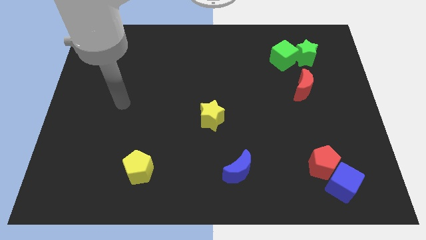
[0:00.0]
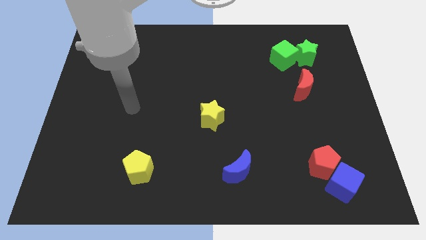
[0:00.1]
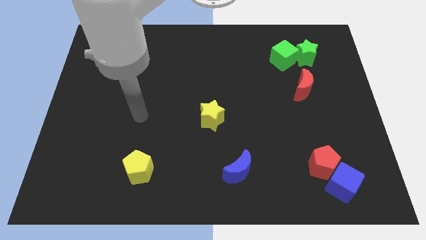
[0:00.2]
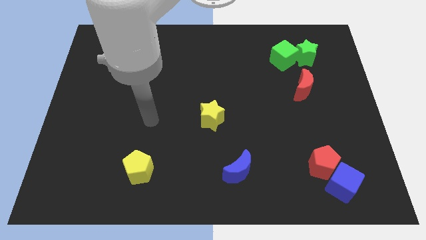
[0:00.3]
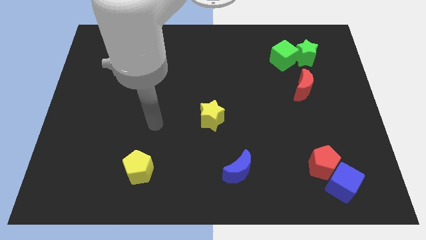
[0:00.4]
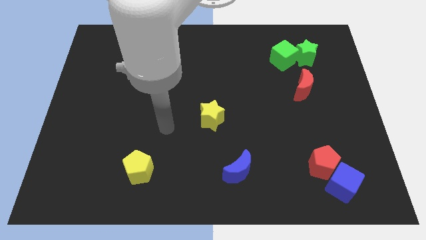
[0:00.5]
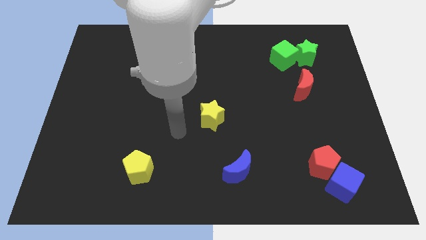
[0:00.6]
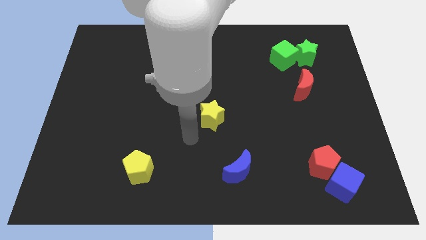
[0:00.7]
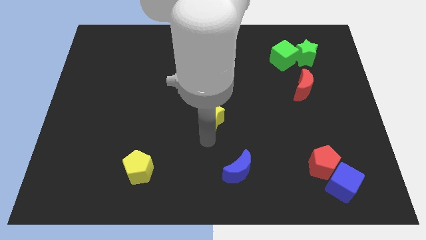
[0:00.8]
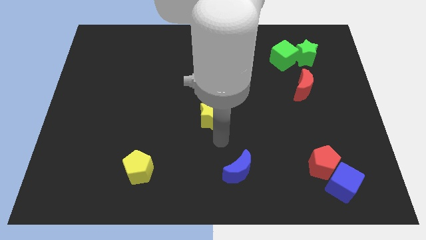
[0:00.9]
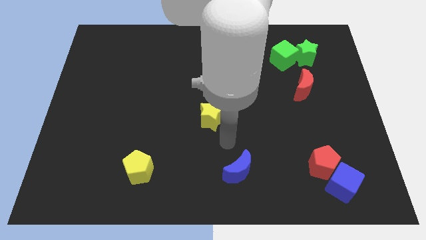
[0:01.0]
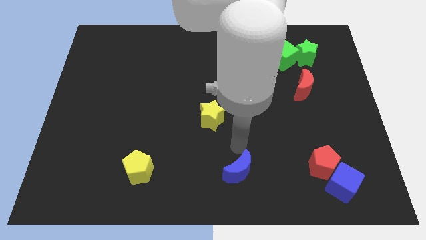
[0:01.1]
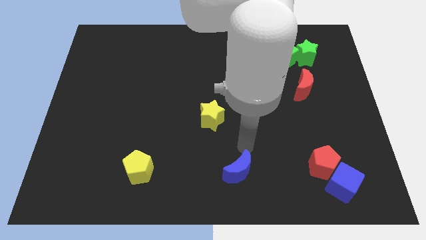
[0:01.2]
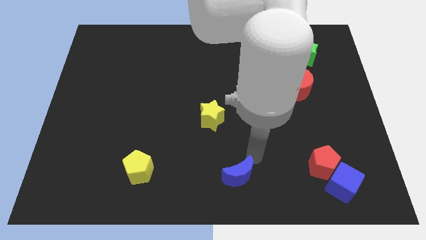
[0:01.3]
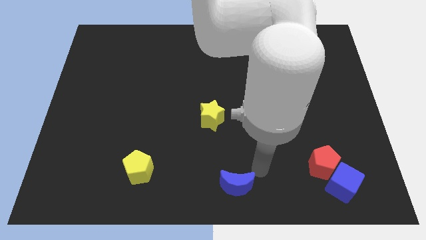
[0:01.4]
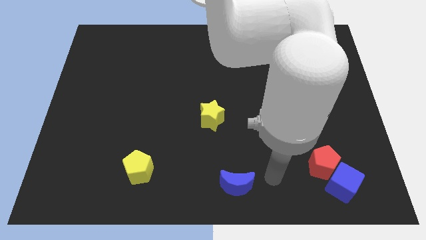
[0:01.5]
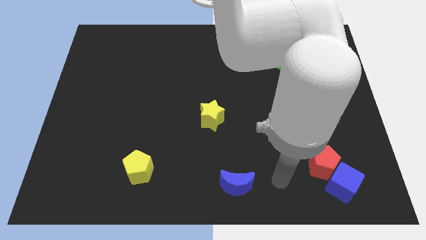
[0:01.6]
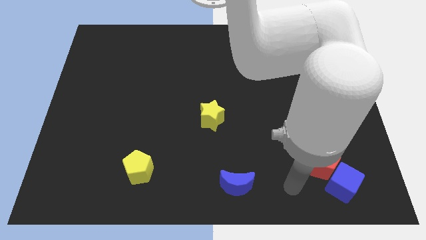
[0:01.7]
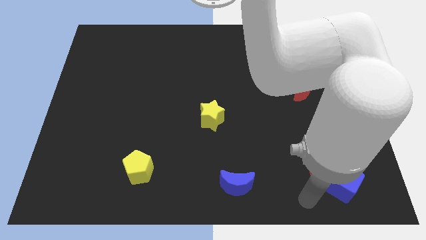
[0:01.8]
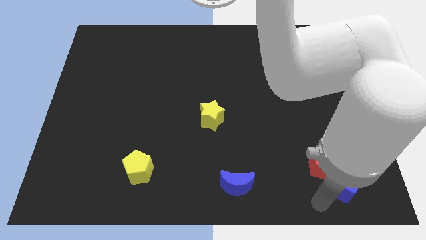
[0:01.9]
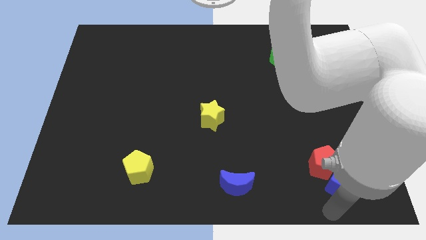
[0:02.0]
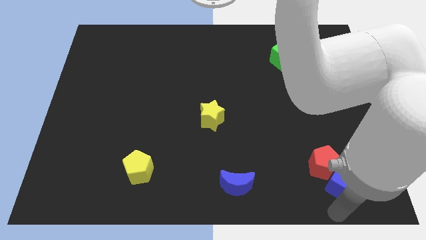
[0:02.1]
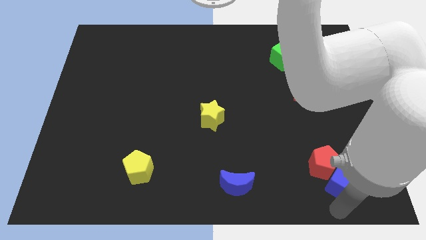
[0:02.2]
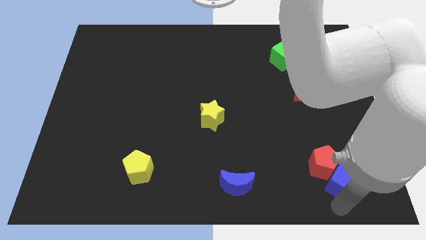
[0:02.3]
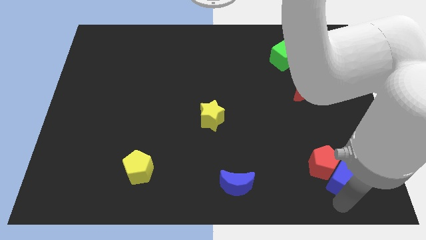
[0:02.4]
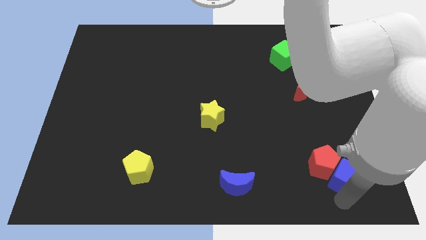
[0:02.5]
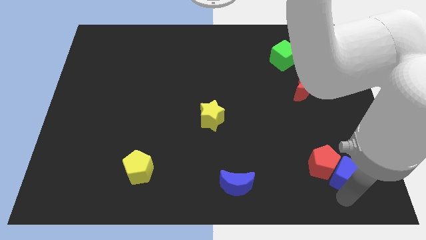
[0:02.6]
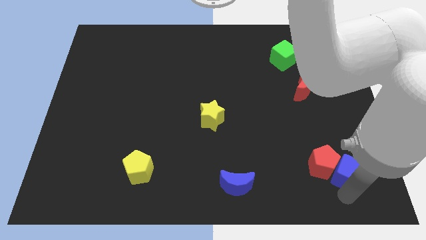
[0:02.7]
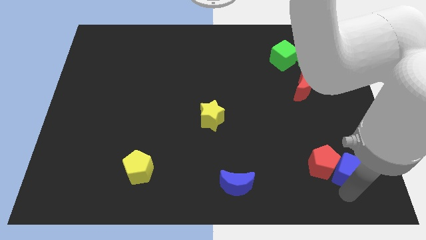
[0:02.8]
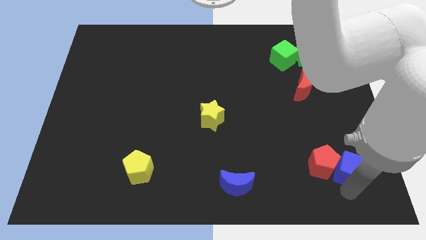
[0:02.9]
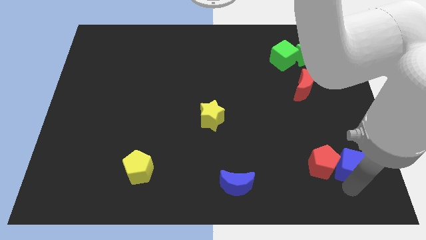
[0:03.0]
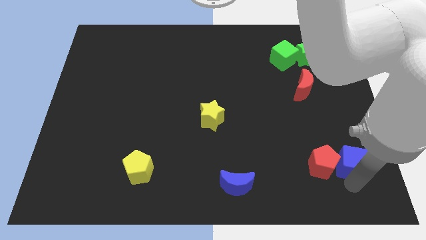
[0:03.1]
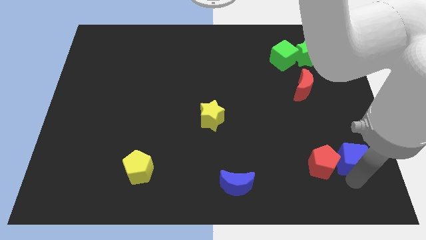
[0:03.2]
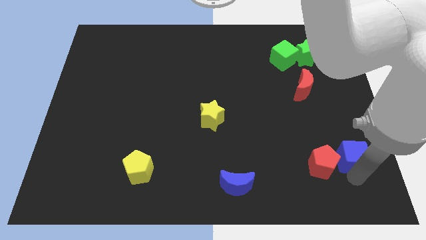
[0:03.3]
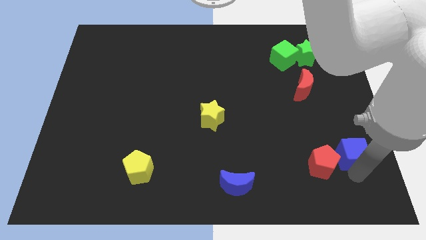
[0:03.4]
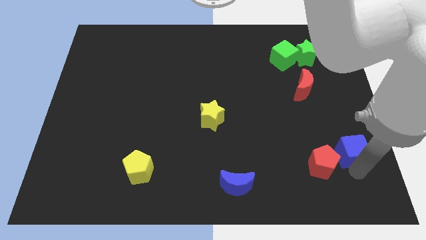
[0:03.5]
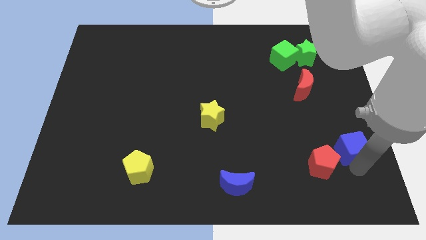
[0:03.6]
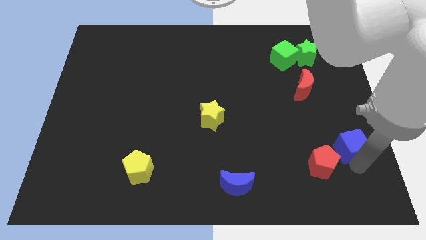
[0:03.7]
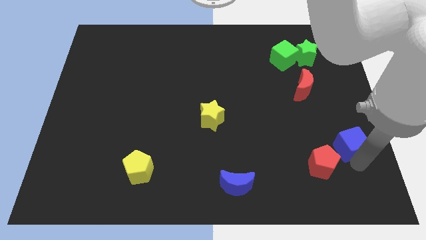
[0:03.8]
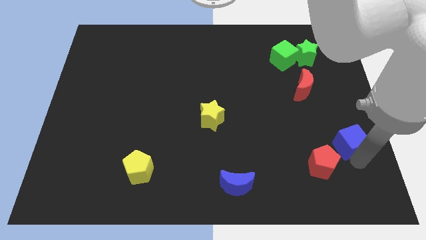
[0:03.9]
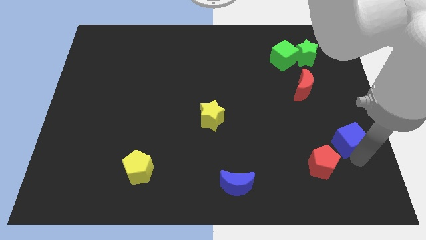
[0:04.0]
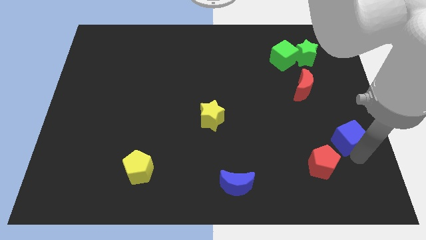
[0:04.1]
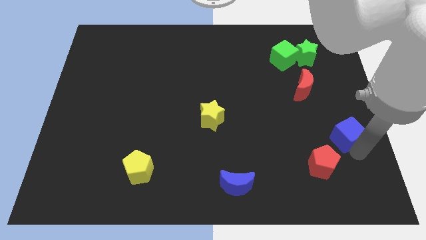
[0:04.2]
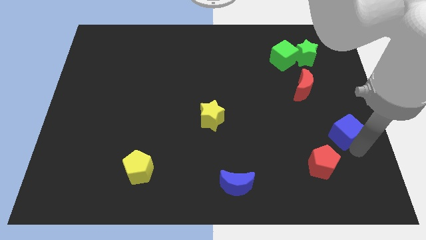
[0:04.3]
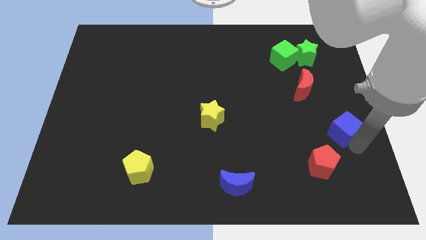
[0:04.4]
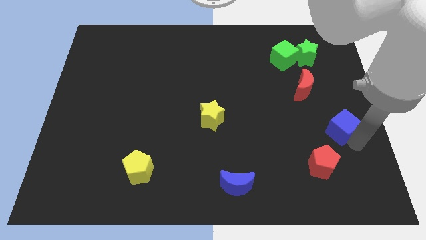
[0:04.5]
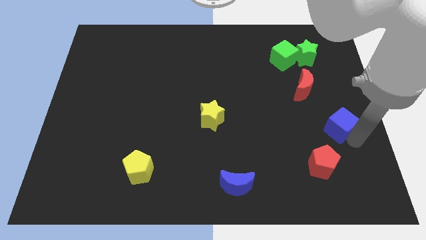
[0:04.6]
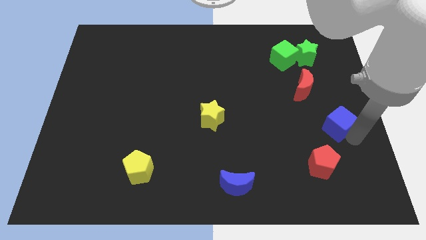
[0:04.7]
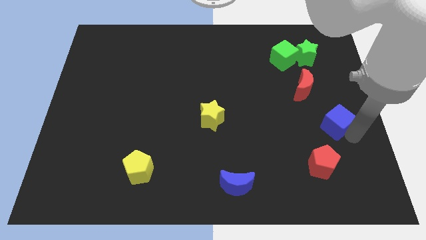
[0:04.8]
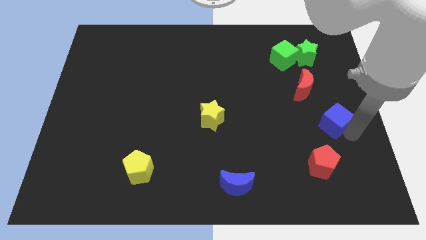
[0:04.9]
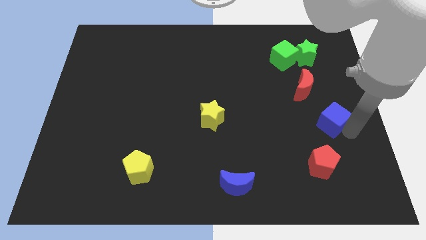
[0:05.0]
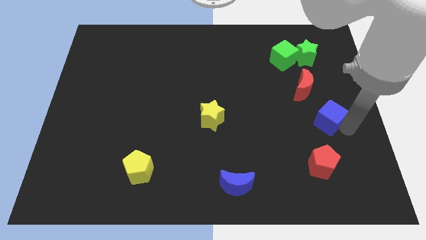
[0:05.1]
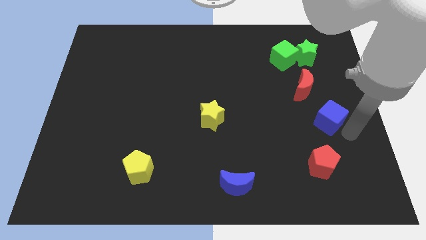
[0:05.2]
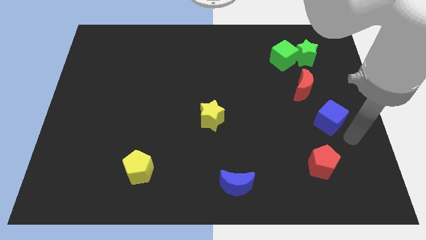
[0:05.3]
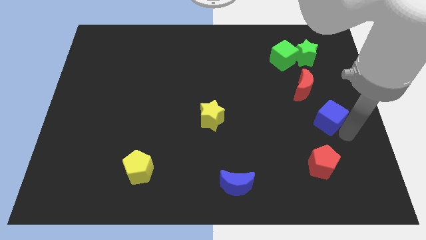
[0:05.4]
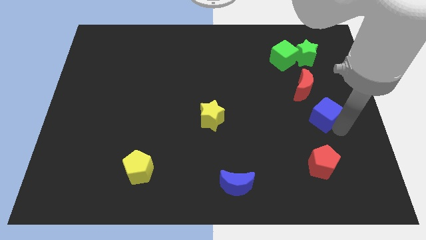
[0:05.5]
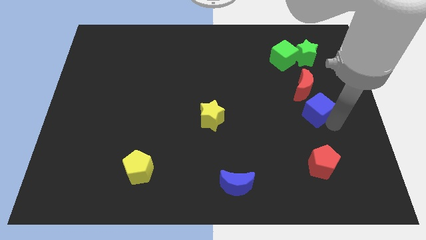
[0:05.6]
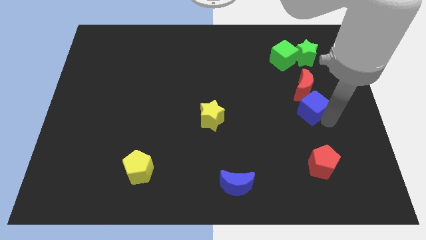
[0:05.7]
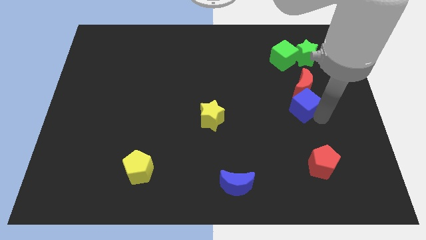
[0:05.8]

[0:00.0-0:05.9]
push the blue cube to the red moon

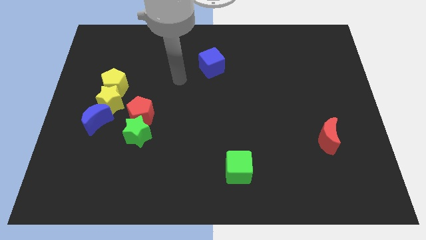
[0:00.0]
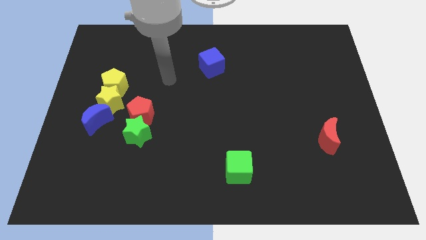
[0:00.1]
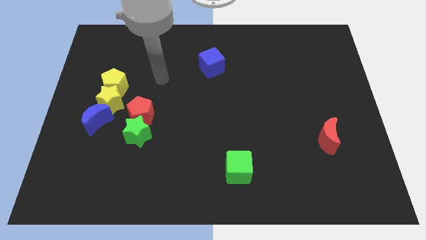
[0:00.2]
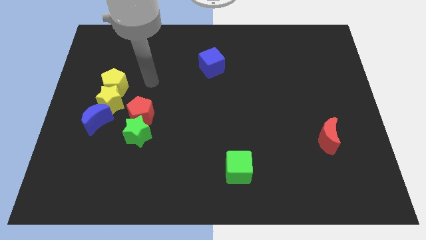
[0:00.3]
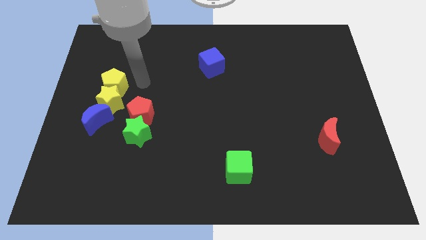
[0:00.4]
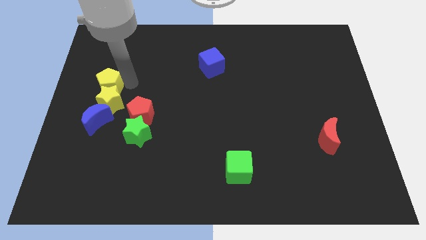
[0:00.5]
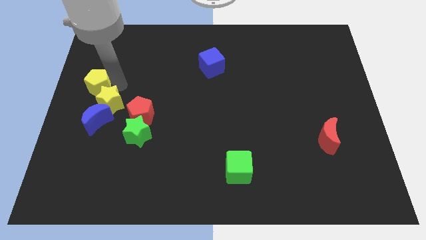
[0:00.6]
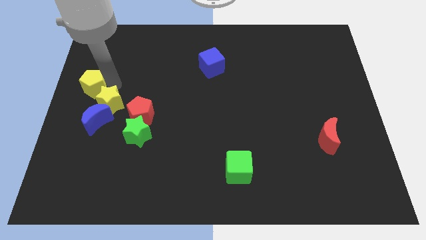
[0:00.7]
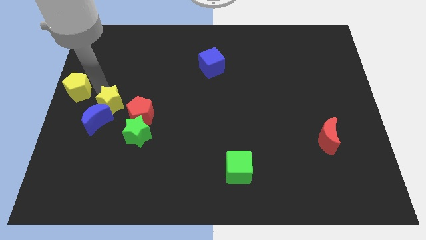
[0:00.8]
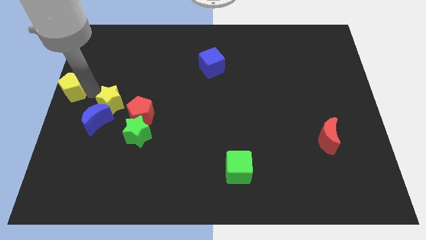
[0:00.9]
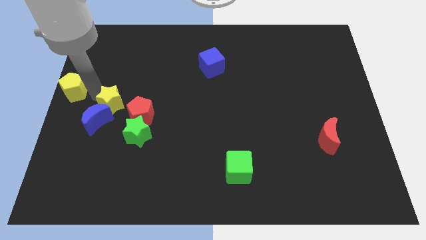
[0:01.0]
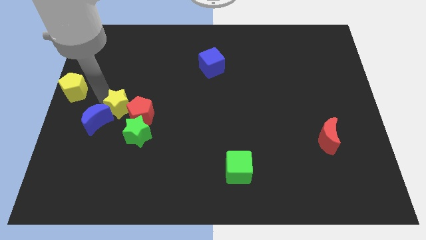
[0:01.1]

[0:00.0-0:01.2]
push the yellow star towards the red pentagon

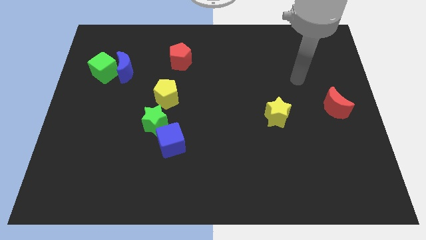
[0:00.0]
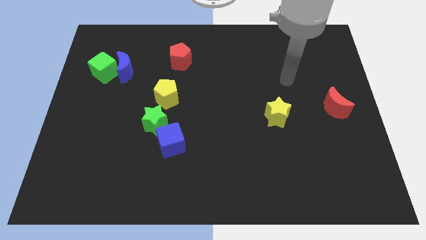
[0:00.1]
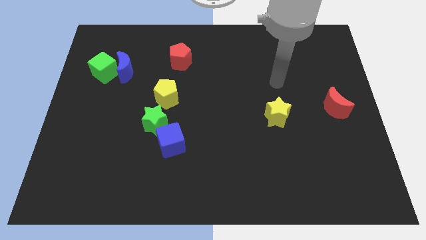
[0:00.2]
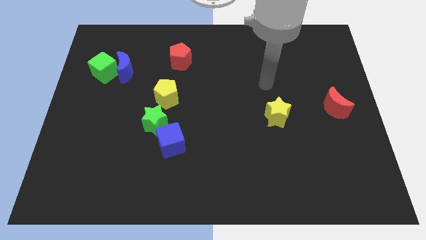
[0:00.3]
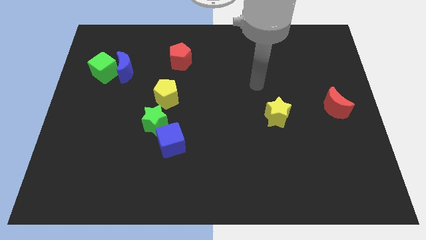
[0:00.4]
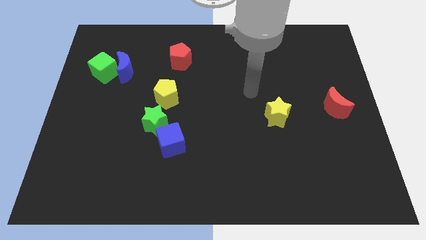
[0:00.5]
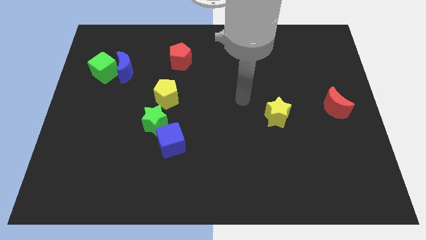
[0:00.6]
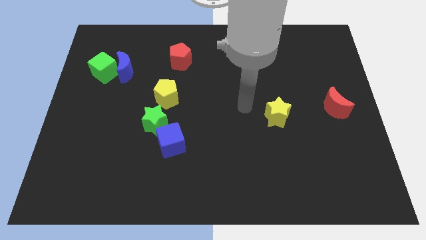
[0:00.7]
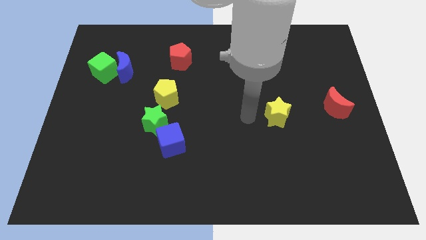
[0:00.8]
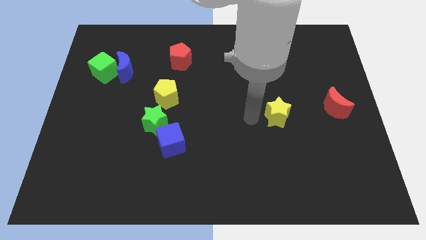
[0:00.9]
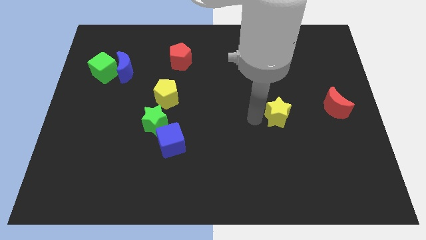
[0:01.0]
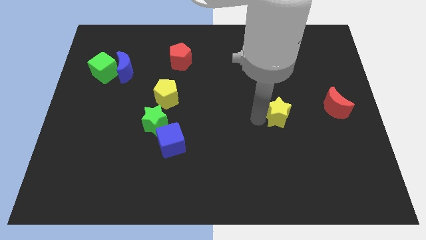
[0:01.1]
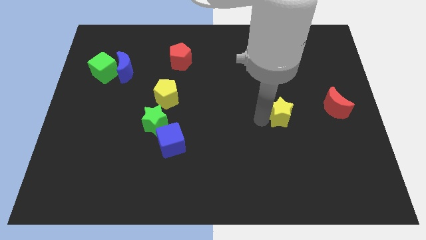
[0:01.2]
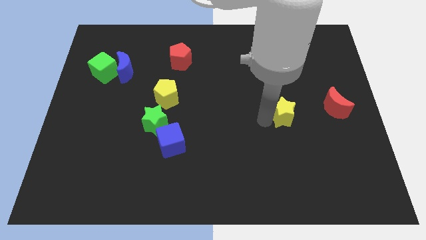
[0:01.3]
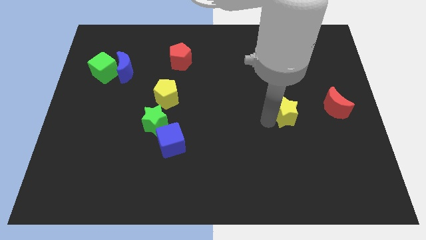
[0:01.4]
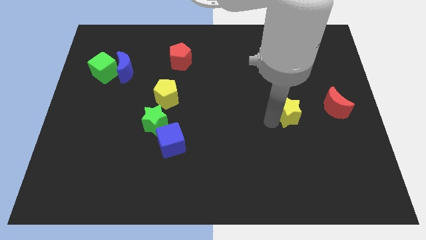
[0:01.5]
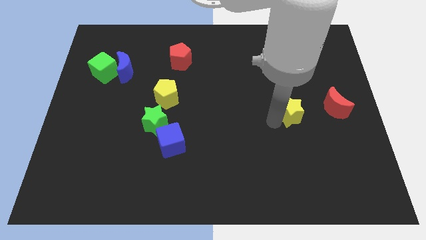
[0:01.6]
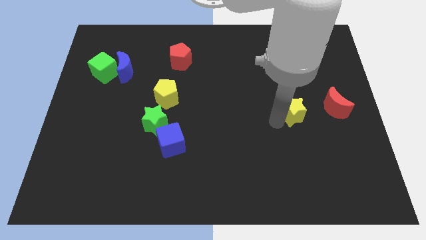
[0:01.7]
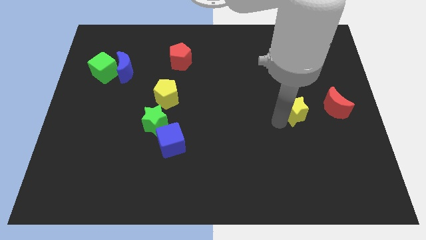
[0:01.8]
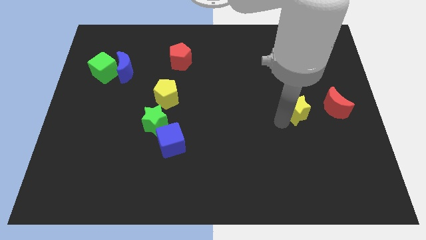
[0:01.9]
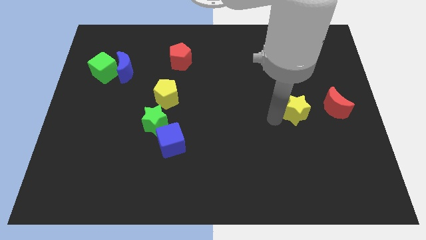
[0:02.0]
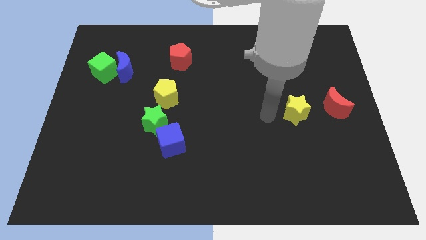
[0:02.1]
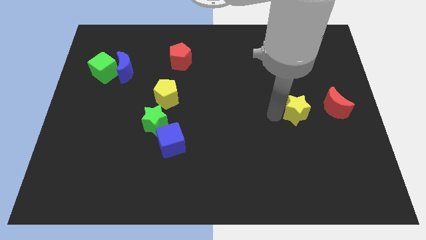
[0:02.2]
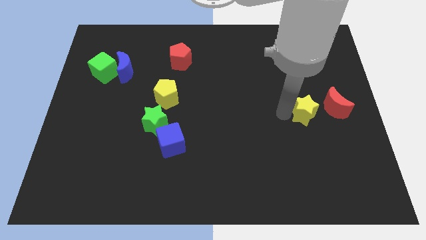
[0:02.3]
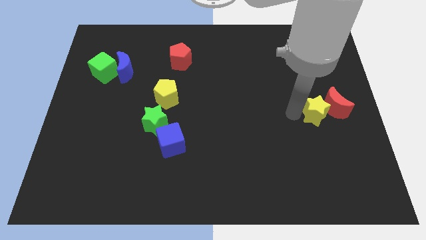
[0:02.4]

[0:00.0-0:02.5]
move the yellow star towards the red moon
